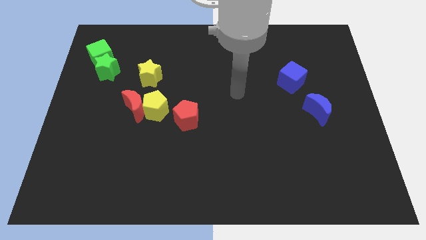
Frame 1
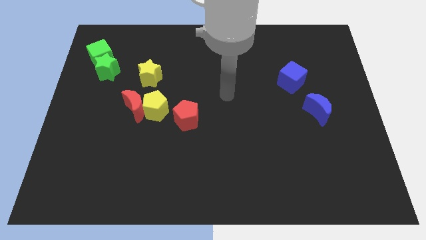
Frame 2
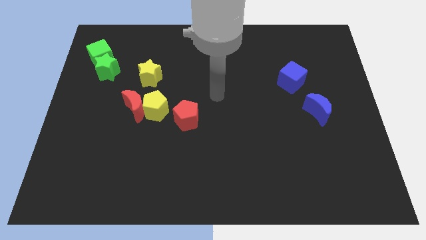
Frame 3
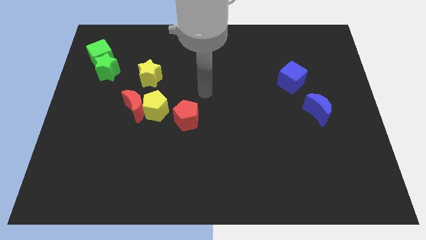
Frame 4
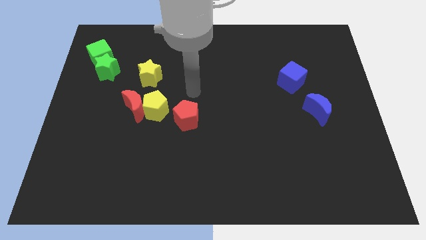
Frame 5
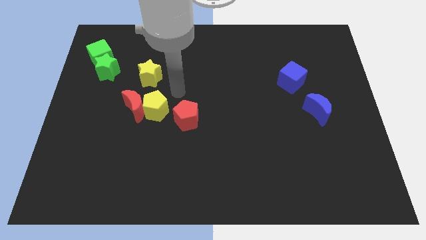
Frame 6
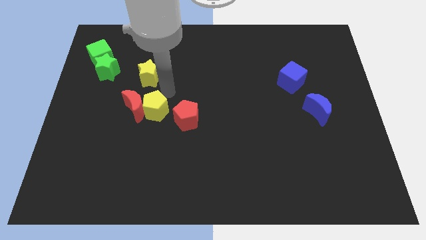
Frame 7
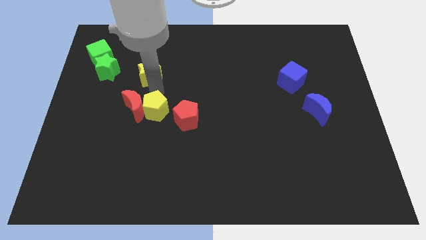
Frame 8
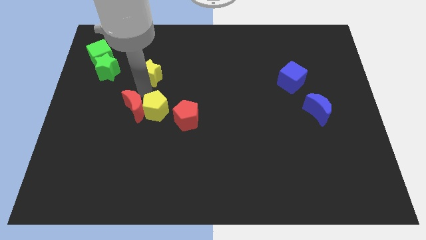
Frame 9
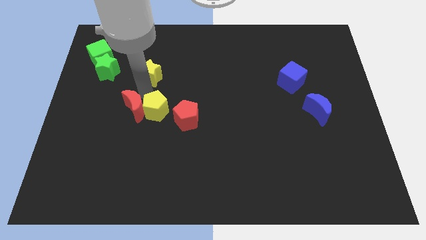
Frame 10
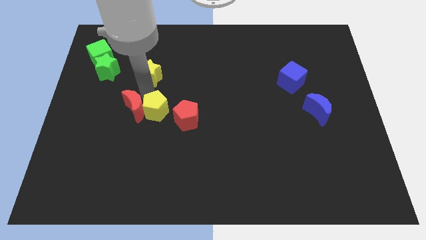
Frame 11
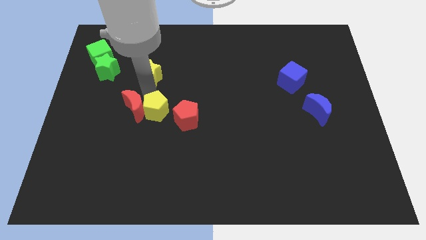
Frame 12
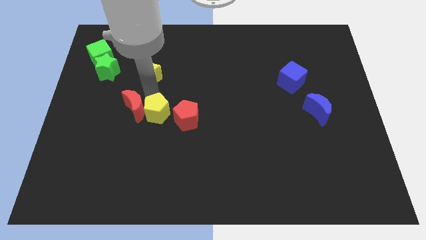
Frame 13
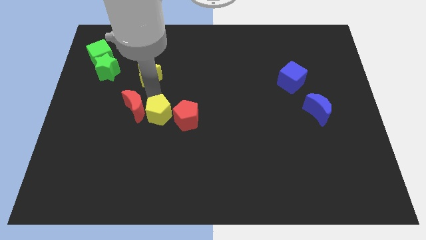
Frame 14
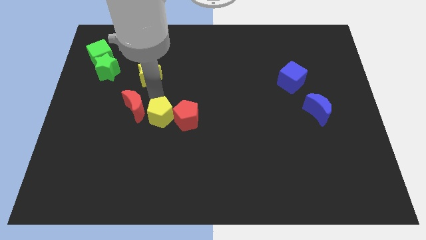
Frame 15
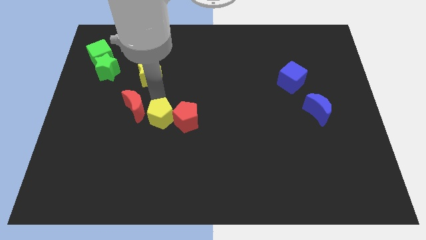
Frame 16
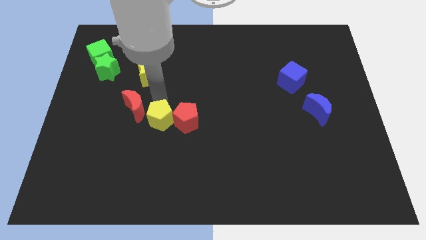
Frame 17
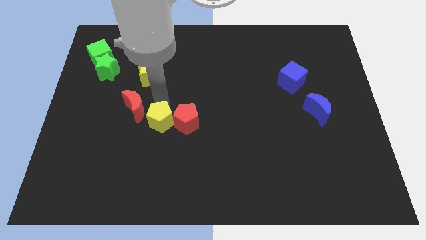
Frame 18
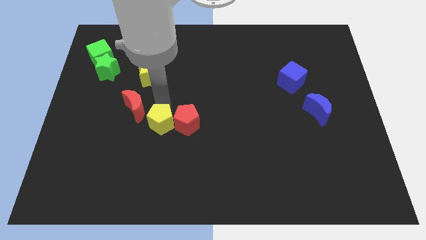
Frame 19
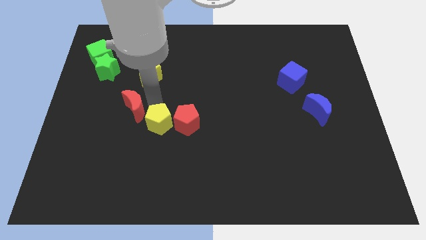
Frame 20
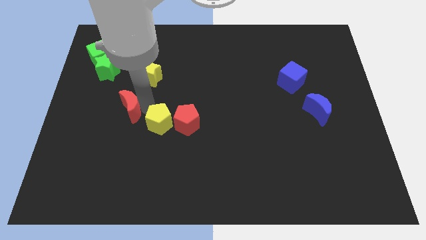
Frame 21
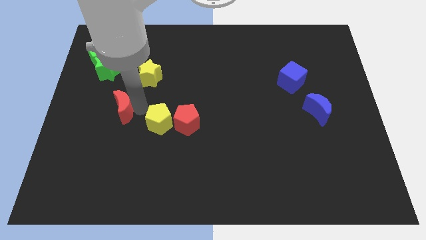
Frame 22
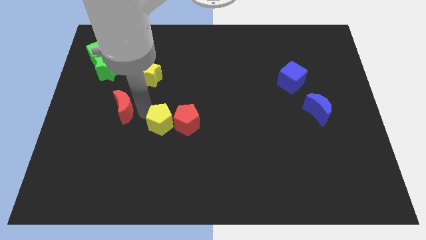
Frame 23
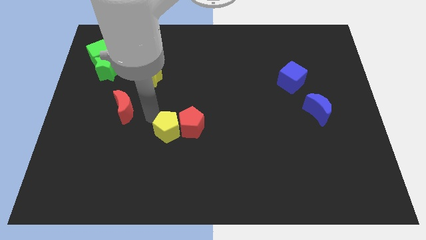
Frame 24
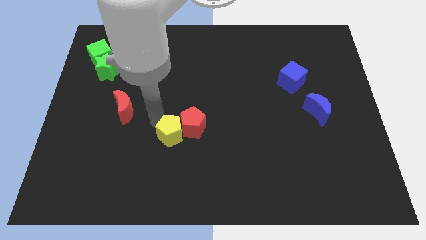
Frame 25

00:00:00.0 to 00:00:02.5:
push the yellow pentagon down and then right a bit

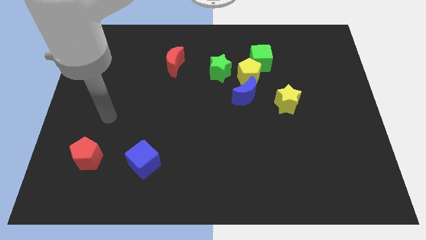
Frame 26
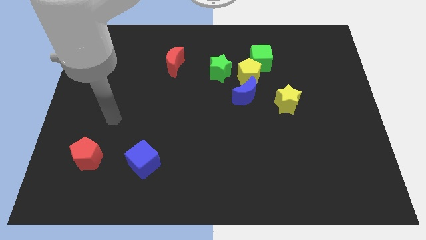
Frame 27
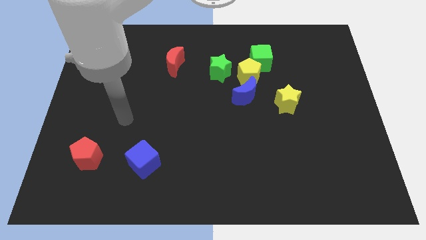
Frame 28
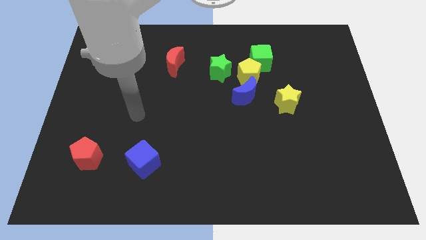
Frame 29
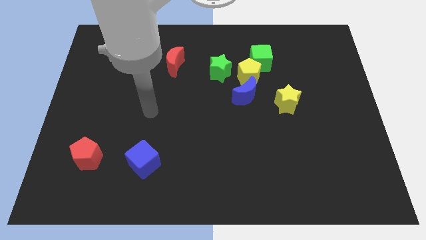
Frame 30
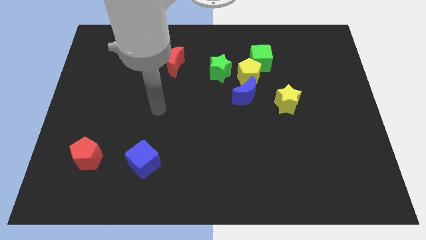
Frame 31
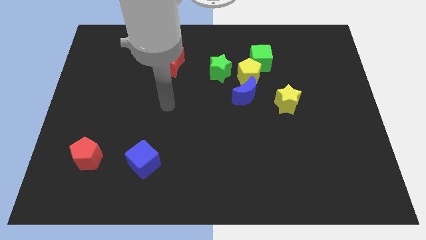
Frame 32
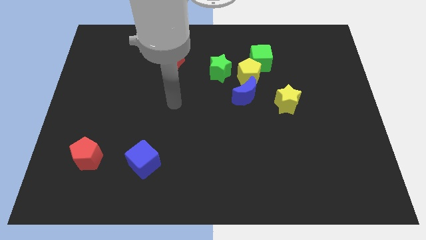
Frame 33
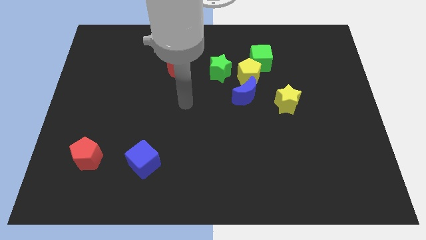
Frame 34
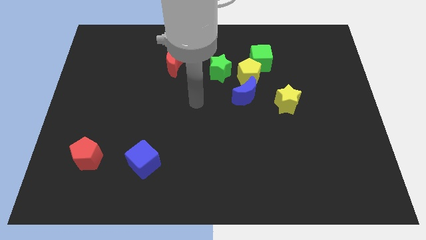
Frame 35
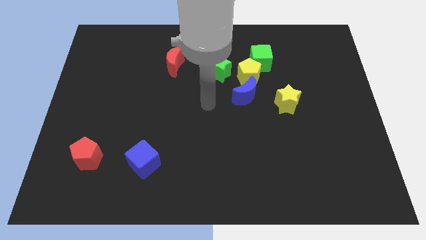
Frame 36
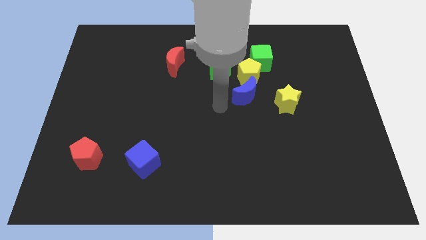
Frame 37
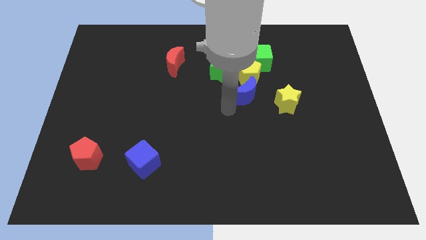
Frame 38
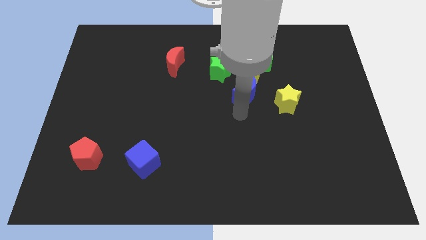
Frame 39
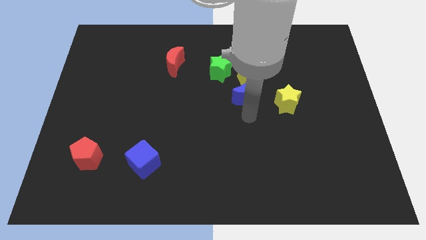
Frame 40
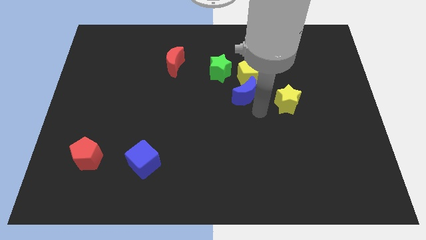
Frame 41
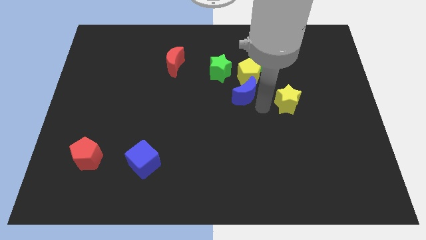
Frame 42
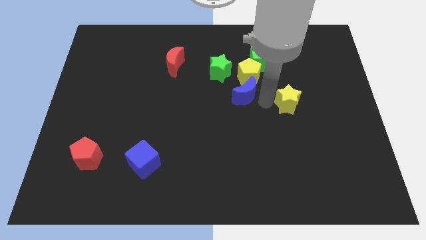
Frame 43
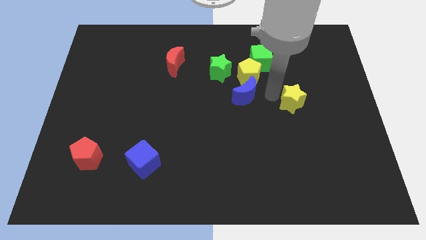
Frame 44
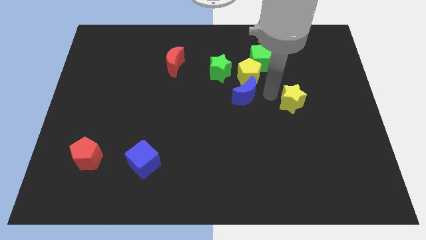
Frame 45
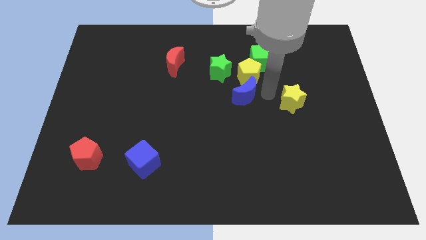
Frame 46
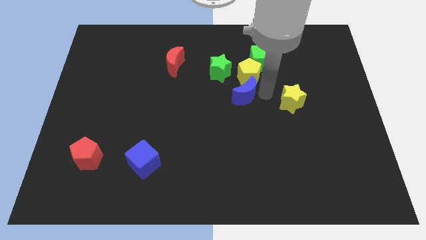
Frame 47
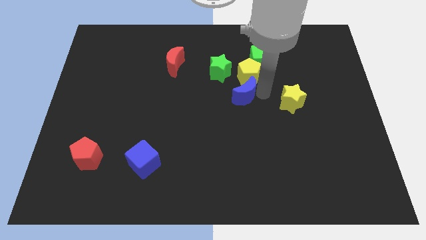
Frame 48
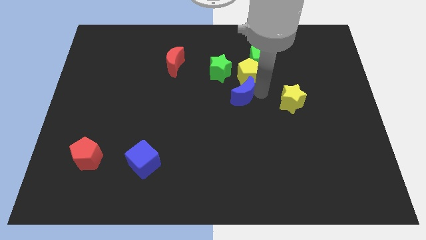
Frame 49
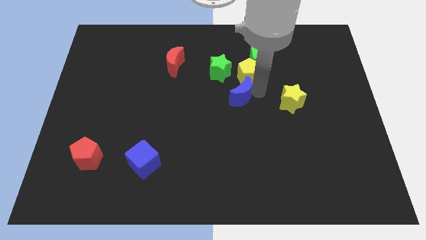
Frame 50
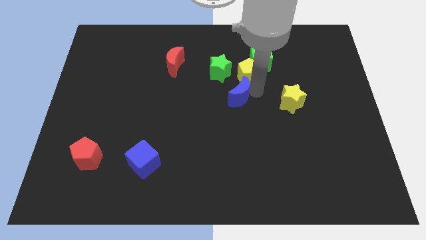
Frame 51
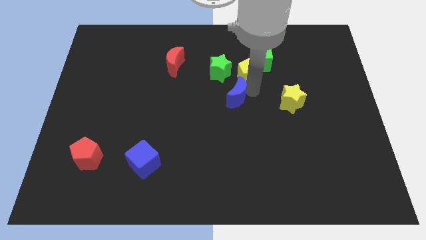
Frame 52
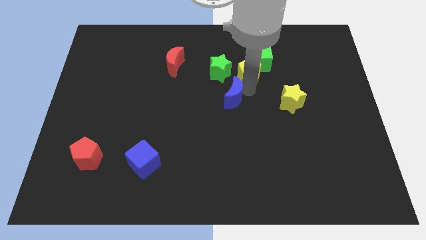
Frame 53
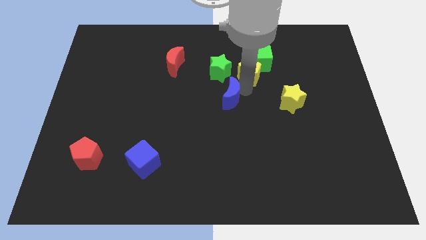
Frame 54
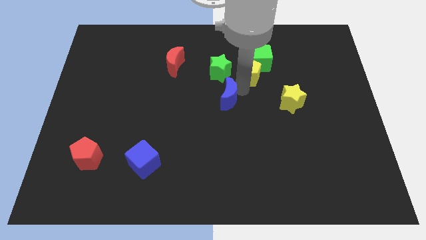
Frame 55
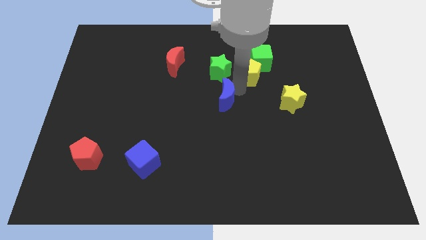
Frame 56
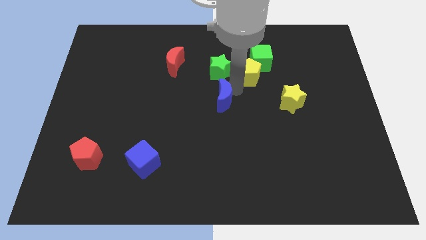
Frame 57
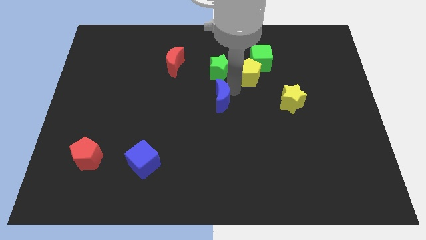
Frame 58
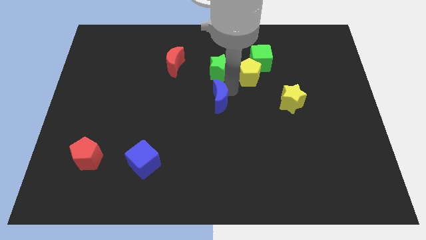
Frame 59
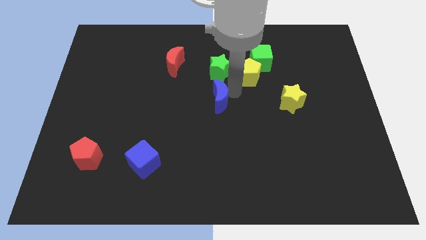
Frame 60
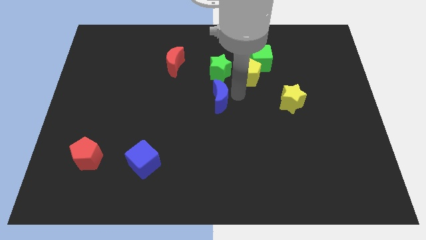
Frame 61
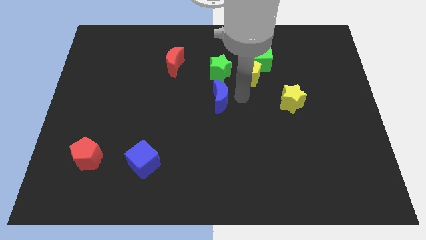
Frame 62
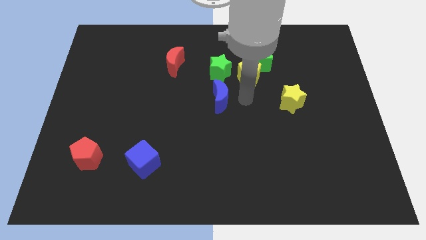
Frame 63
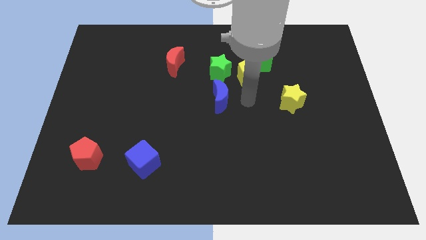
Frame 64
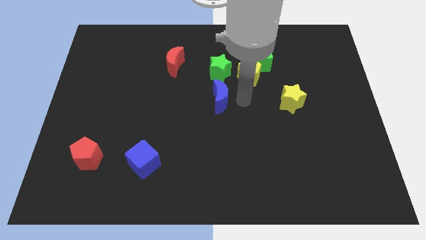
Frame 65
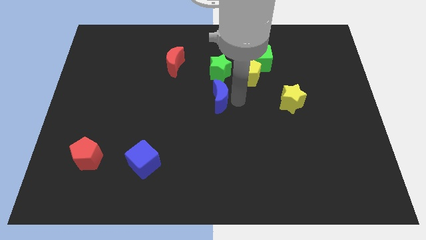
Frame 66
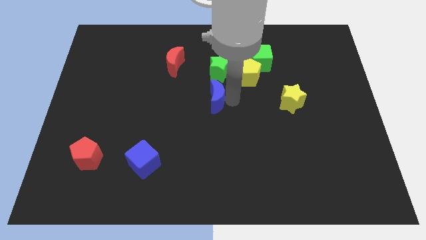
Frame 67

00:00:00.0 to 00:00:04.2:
move the blue moon a little bit left

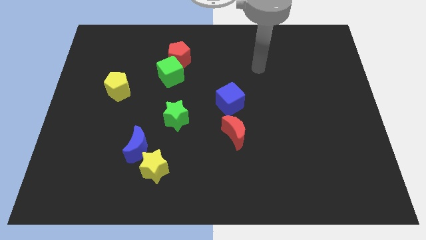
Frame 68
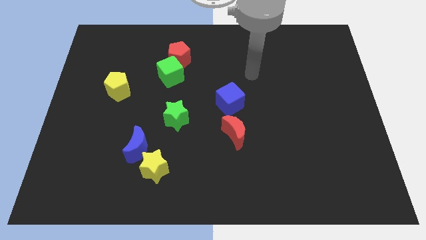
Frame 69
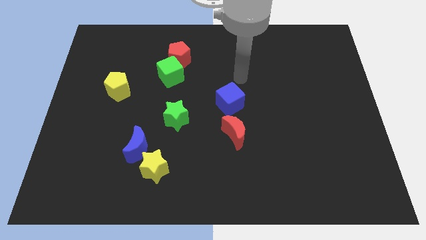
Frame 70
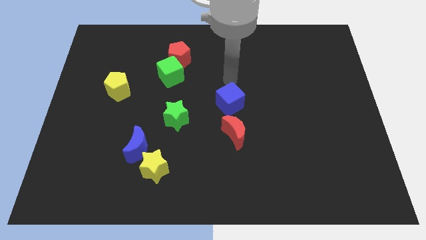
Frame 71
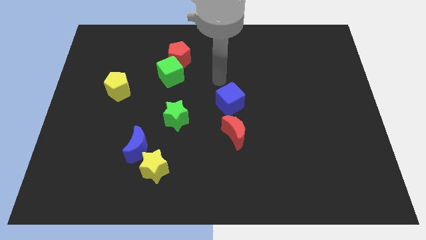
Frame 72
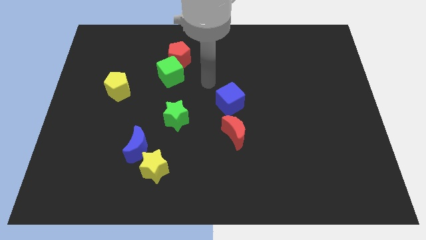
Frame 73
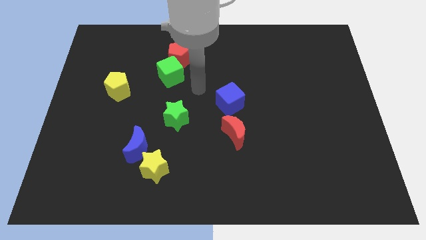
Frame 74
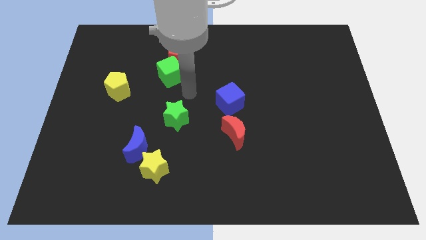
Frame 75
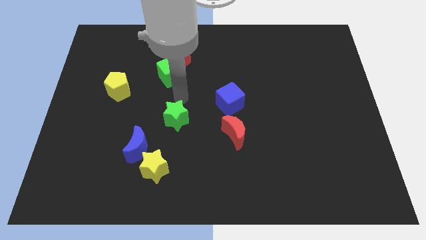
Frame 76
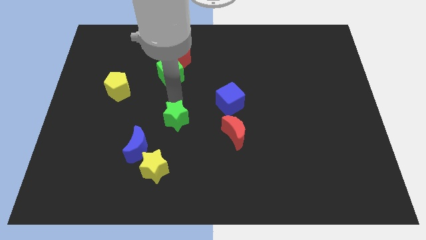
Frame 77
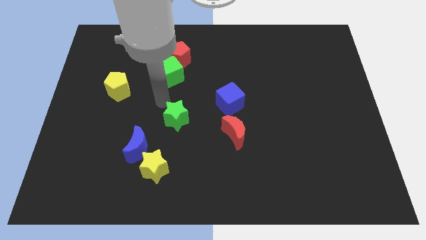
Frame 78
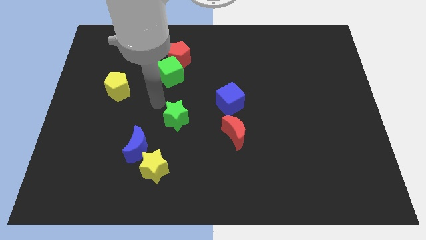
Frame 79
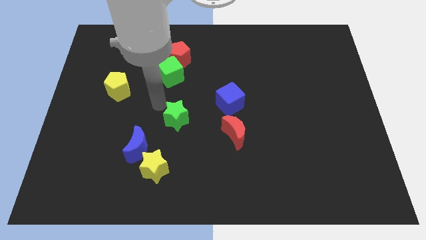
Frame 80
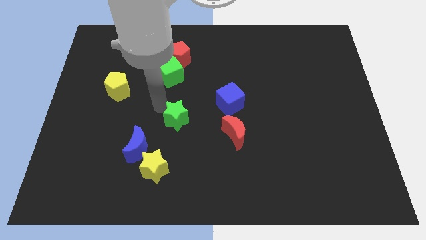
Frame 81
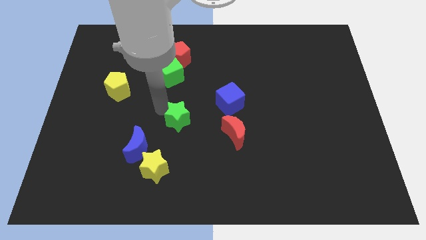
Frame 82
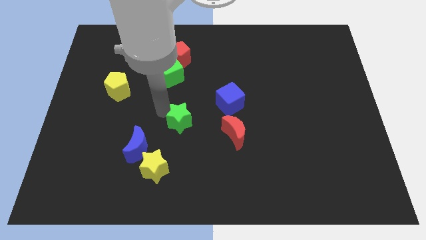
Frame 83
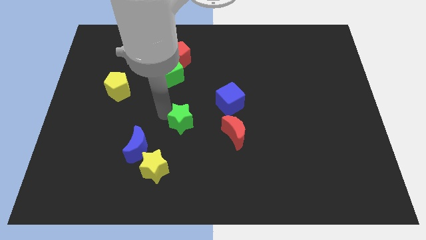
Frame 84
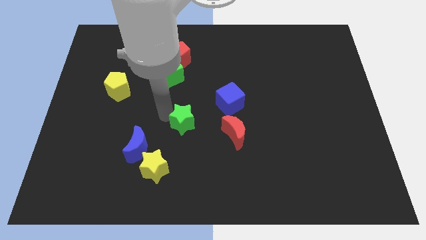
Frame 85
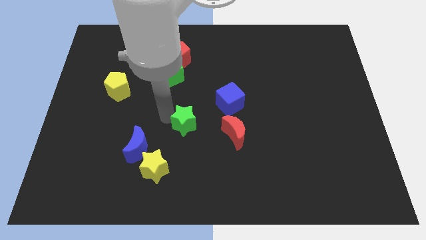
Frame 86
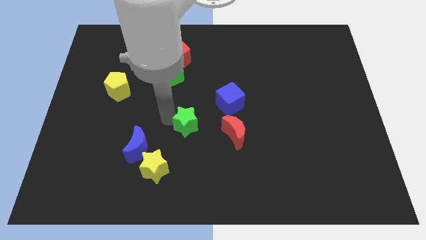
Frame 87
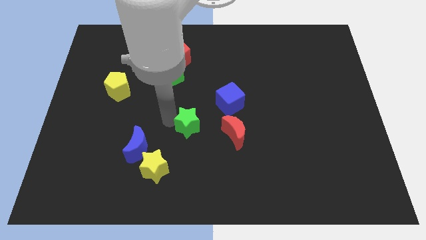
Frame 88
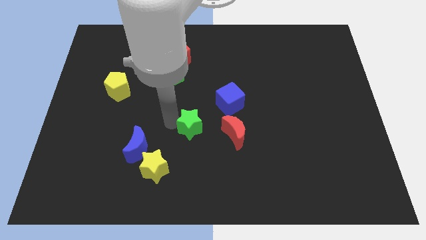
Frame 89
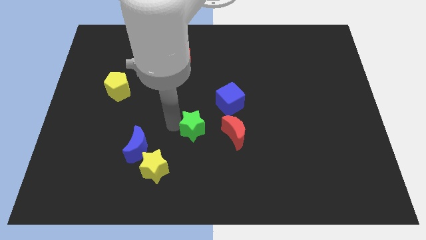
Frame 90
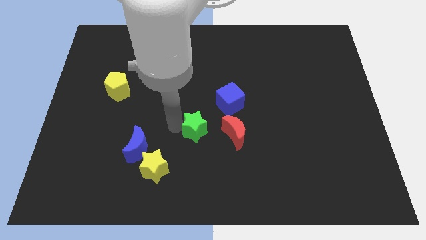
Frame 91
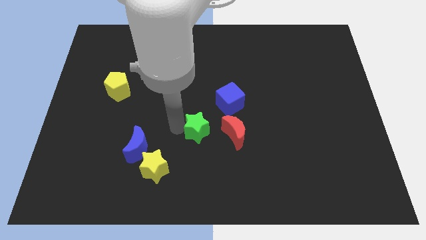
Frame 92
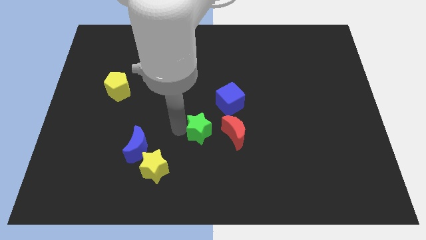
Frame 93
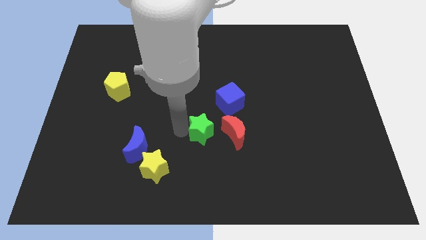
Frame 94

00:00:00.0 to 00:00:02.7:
slightly move the green star downwards and to the right
